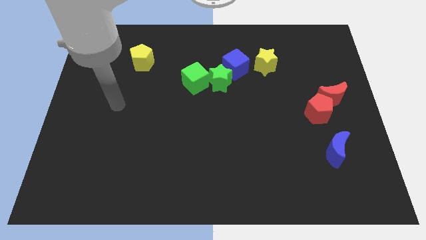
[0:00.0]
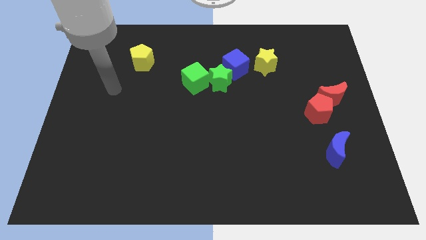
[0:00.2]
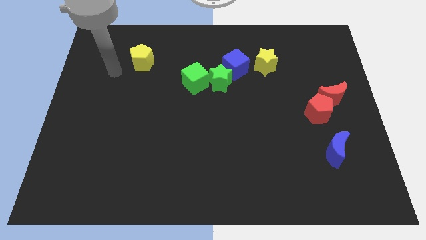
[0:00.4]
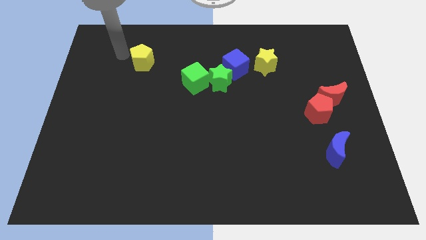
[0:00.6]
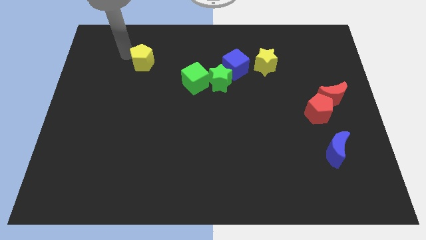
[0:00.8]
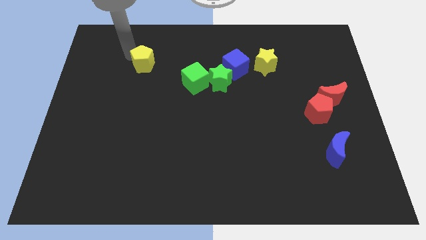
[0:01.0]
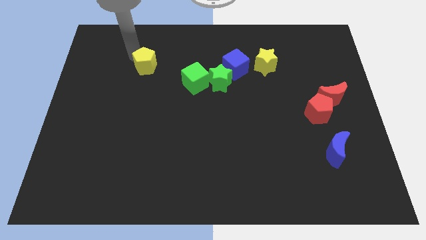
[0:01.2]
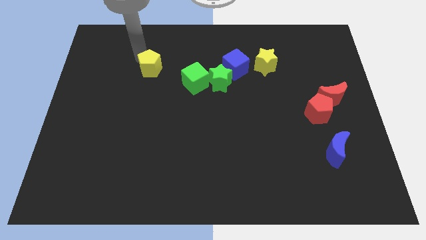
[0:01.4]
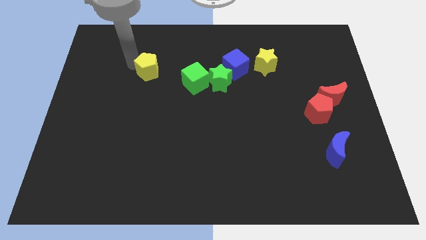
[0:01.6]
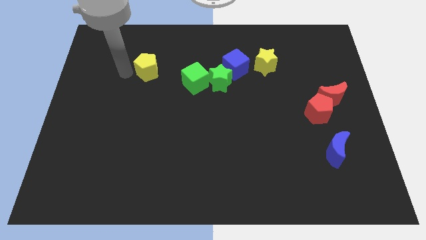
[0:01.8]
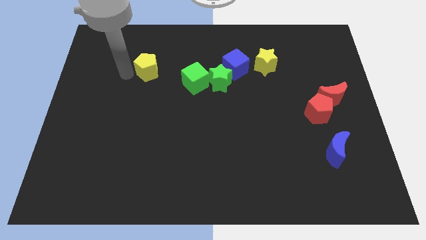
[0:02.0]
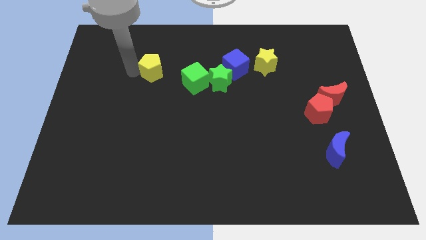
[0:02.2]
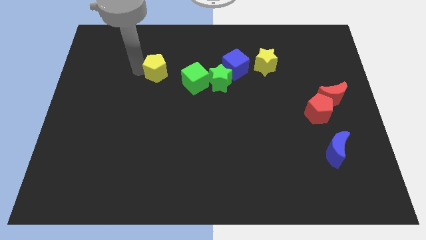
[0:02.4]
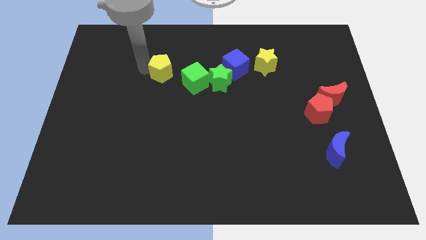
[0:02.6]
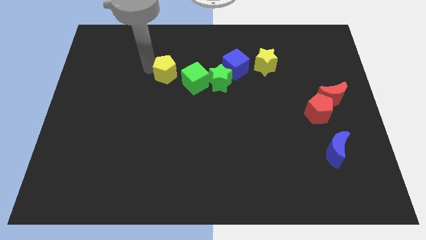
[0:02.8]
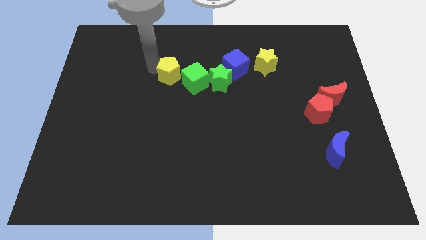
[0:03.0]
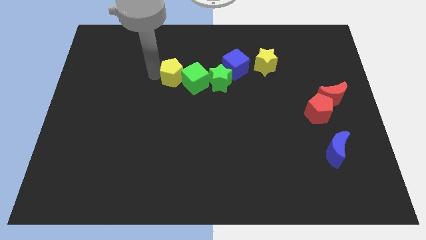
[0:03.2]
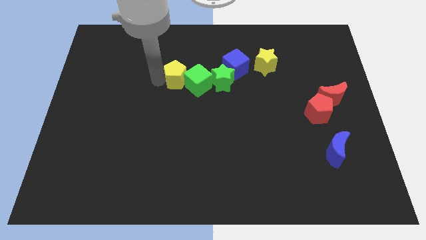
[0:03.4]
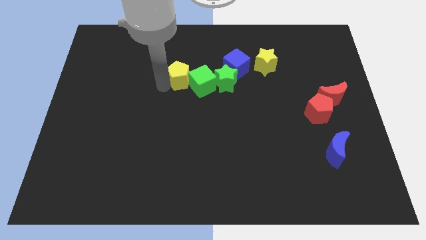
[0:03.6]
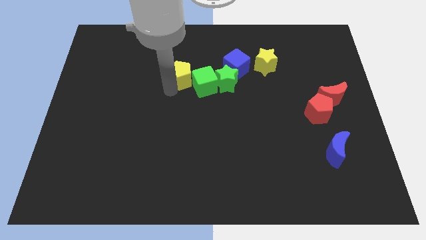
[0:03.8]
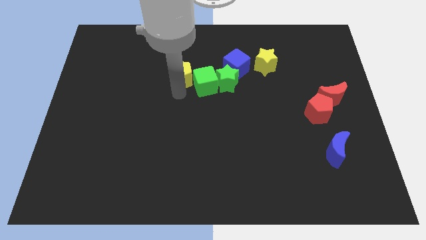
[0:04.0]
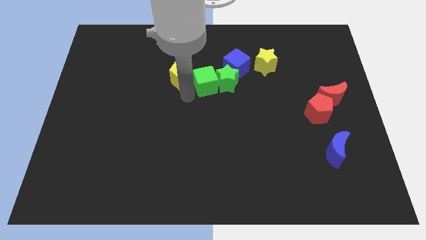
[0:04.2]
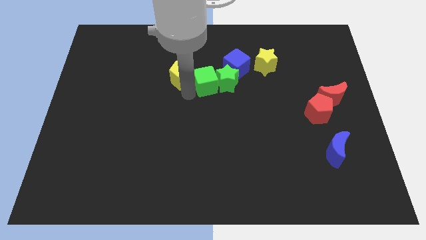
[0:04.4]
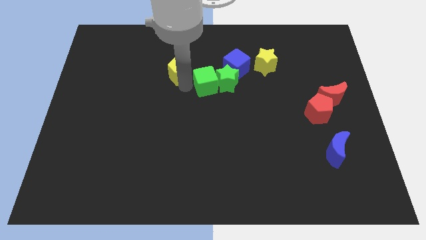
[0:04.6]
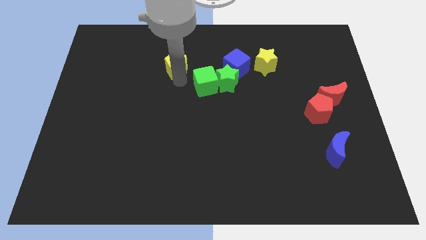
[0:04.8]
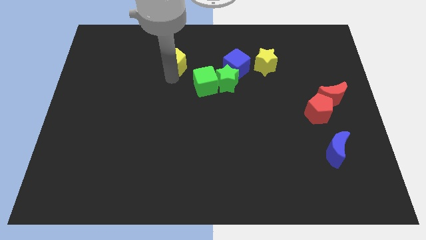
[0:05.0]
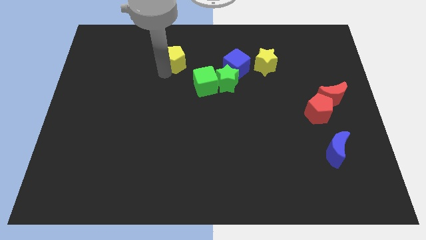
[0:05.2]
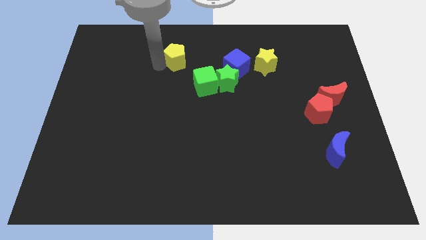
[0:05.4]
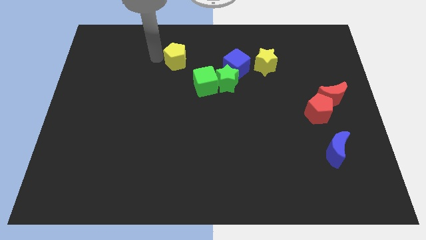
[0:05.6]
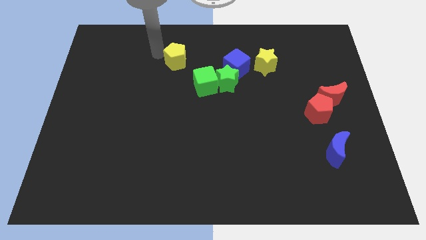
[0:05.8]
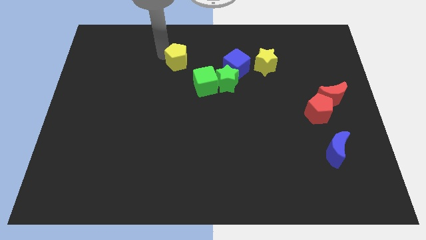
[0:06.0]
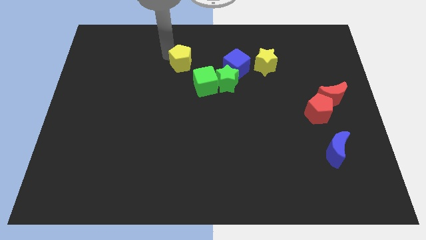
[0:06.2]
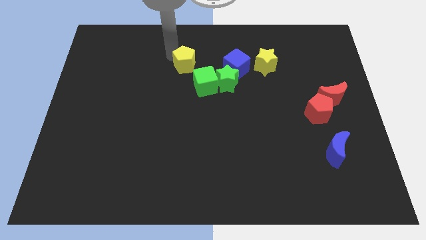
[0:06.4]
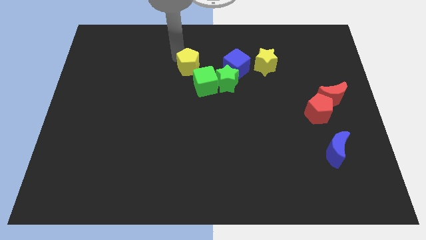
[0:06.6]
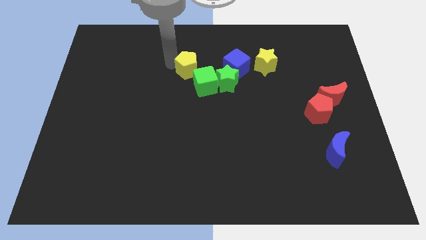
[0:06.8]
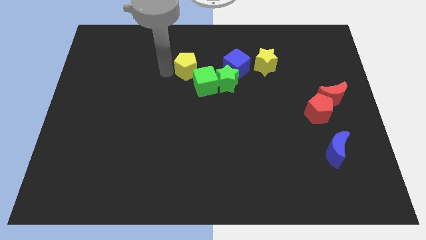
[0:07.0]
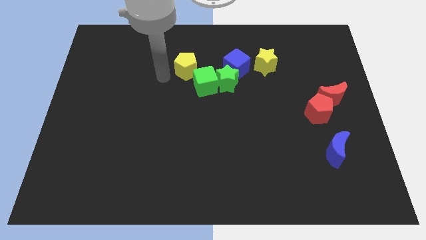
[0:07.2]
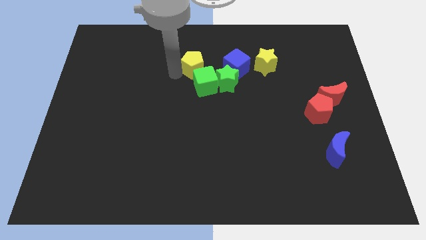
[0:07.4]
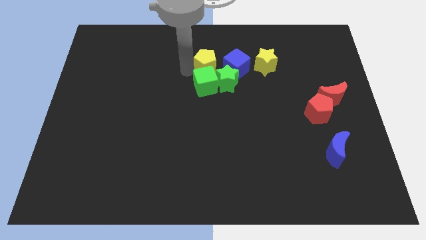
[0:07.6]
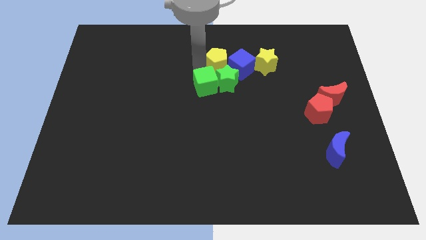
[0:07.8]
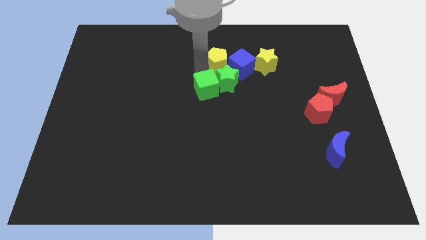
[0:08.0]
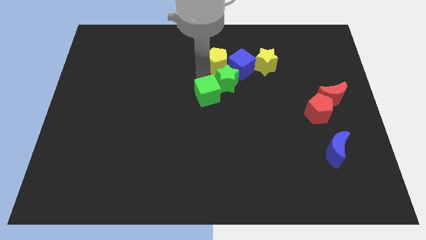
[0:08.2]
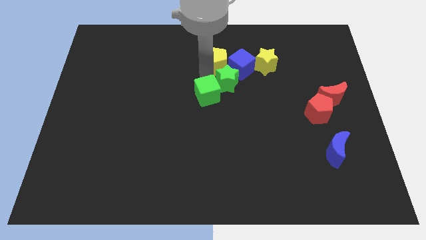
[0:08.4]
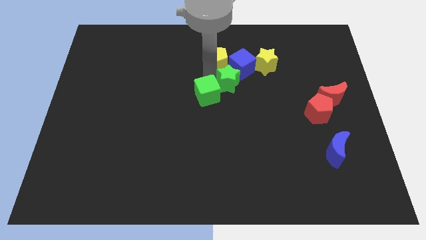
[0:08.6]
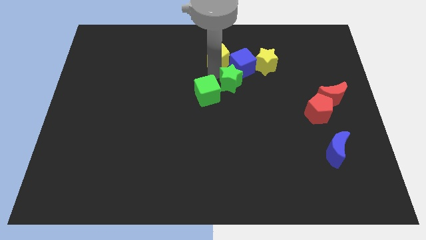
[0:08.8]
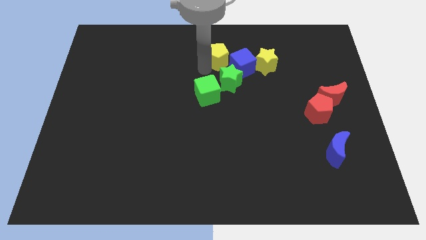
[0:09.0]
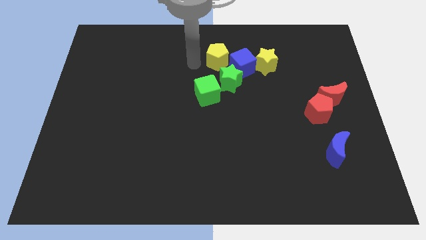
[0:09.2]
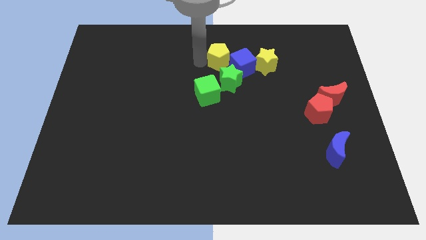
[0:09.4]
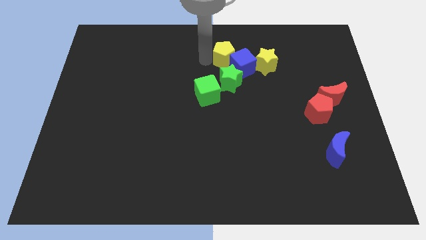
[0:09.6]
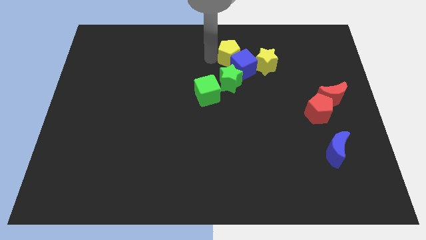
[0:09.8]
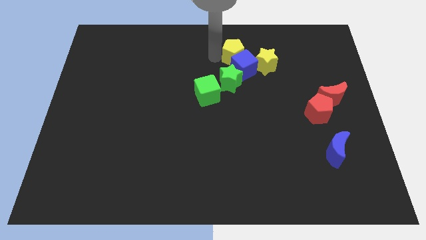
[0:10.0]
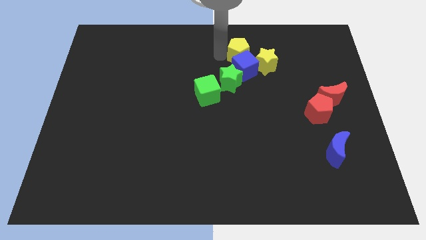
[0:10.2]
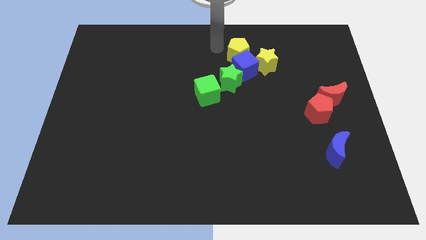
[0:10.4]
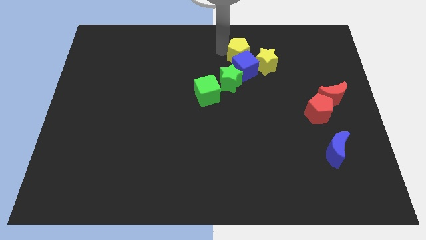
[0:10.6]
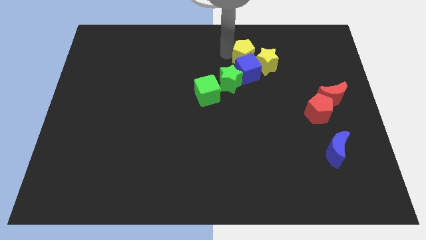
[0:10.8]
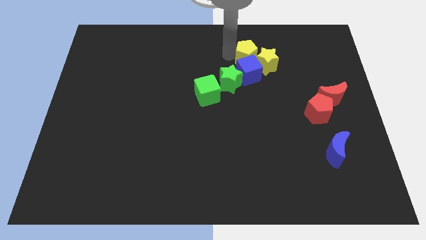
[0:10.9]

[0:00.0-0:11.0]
push the yellow pentagon towards the yellow star

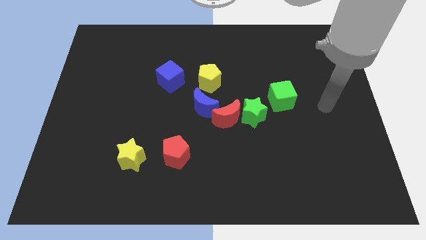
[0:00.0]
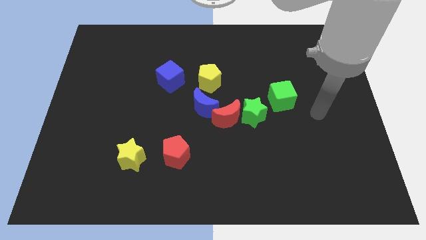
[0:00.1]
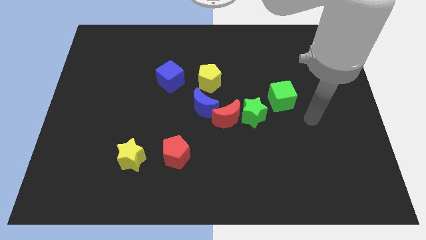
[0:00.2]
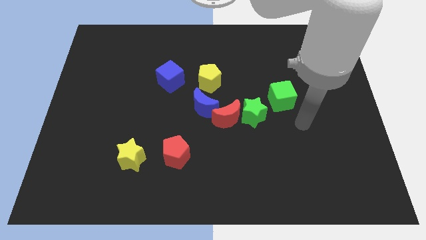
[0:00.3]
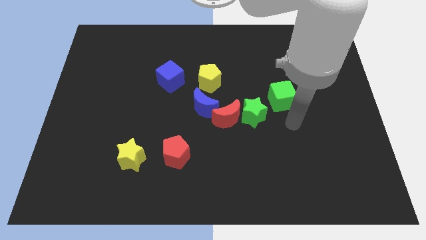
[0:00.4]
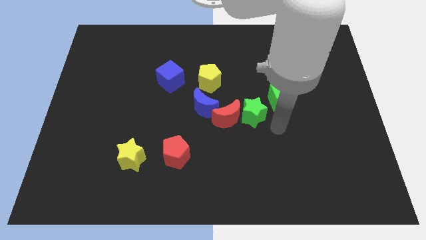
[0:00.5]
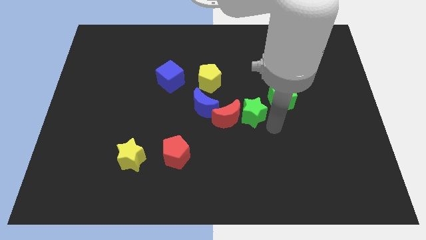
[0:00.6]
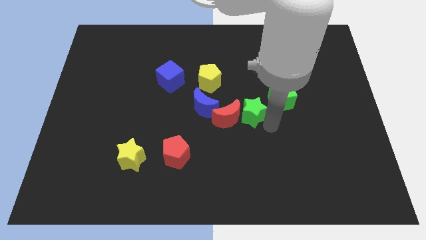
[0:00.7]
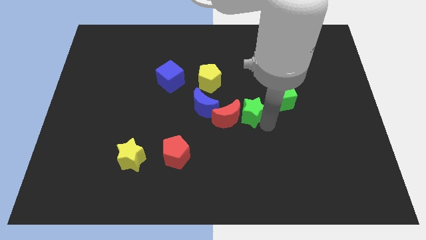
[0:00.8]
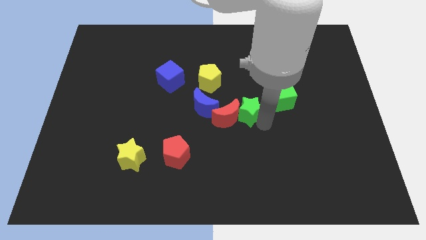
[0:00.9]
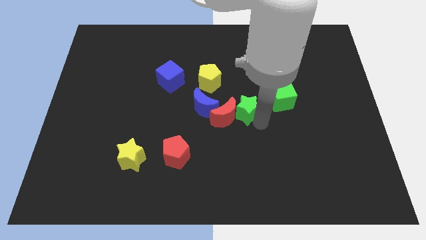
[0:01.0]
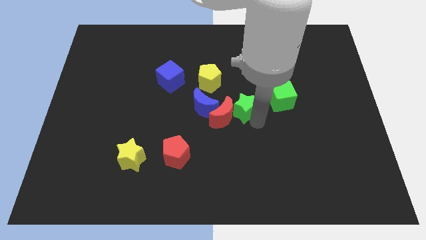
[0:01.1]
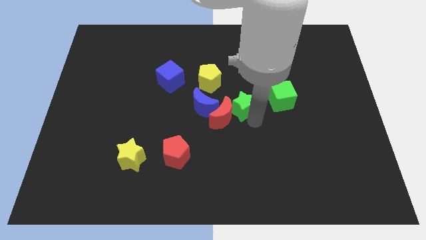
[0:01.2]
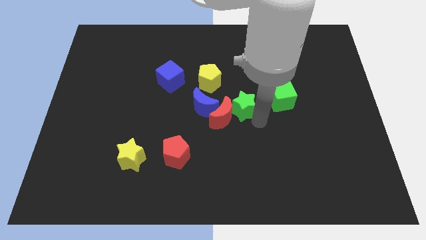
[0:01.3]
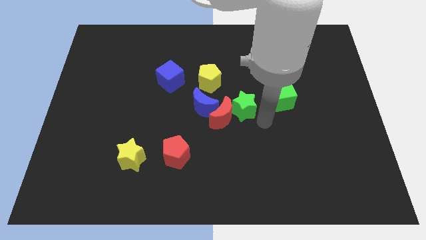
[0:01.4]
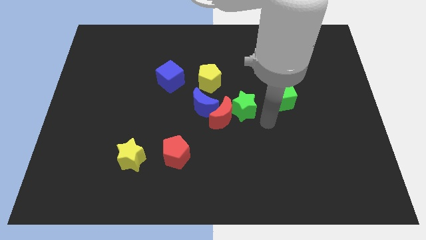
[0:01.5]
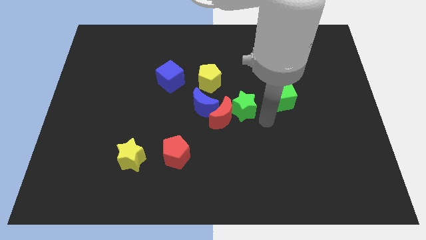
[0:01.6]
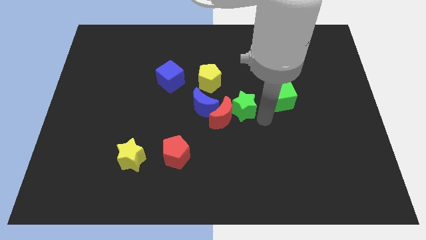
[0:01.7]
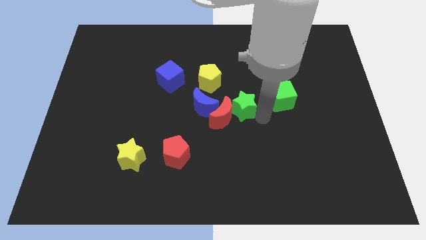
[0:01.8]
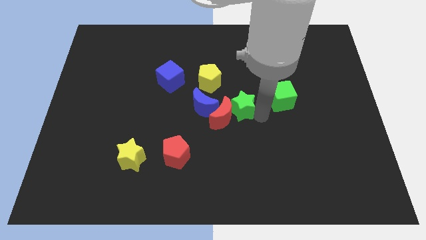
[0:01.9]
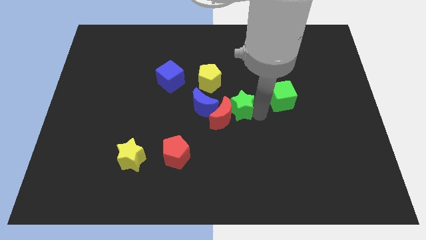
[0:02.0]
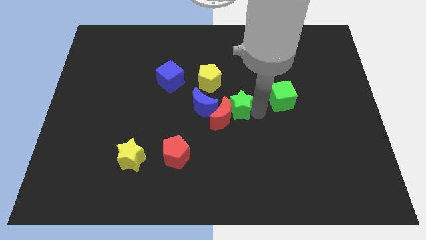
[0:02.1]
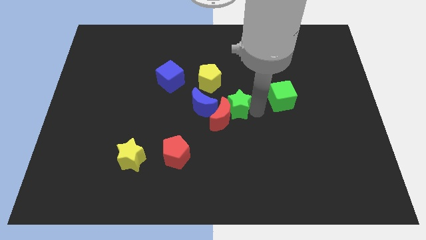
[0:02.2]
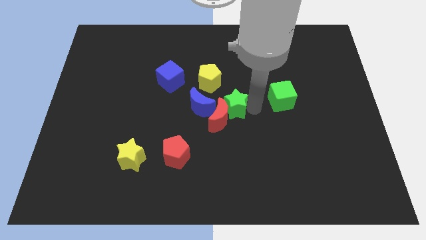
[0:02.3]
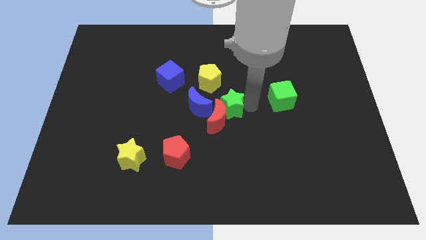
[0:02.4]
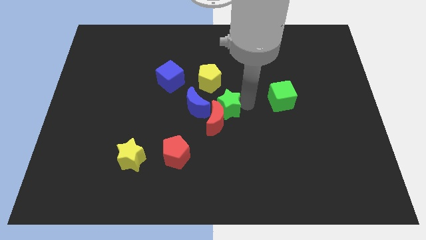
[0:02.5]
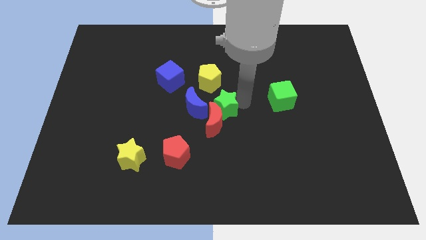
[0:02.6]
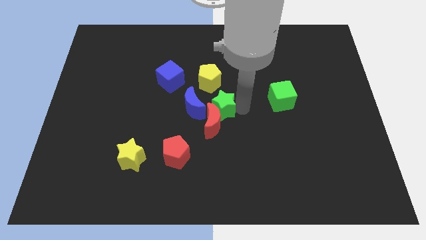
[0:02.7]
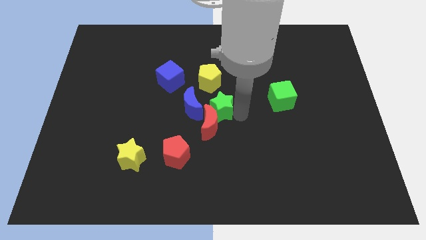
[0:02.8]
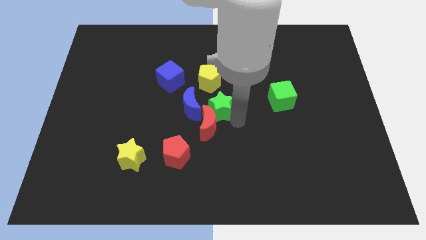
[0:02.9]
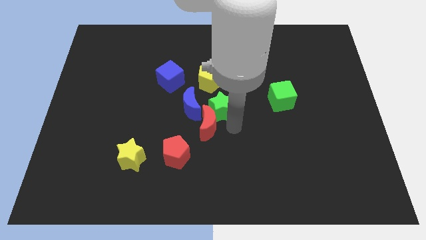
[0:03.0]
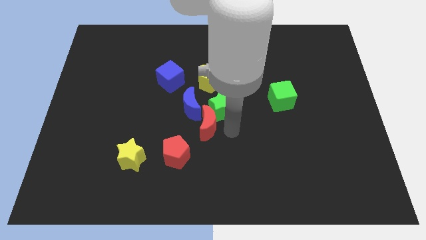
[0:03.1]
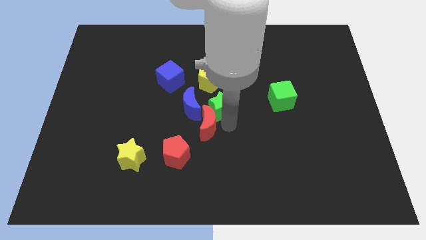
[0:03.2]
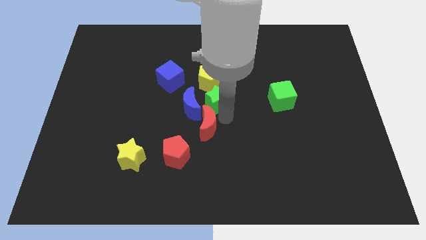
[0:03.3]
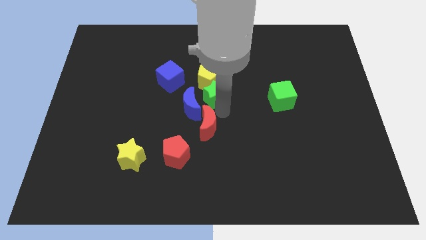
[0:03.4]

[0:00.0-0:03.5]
slide the green star towards the yellow pentagon
